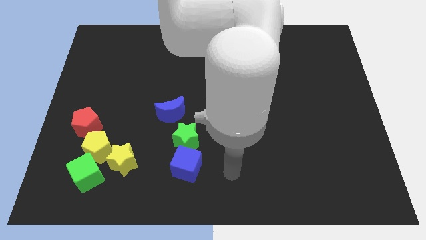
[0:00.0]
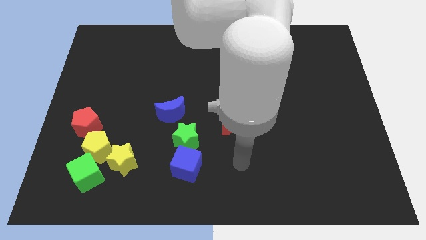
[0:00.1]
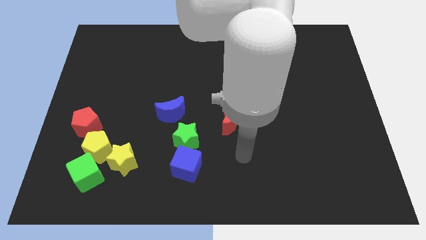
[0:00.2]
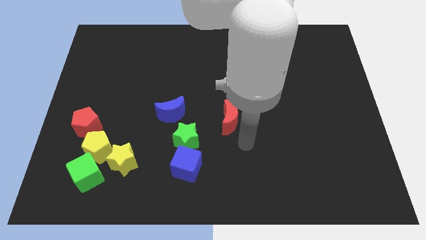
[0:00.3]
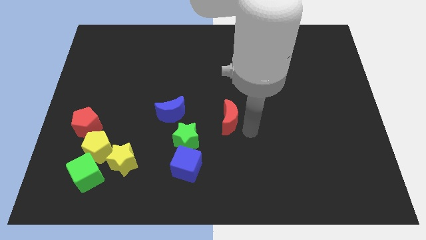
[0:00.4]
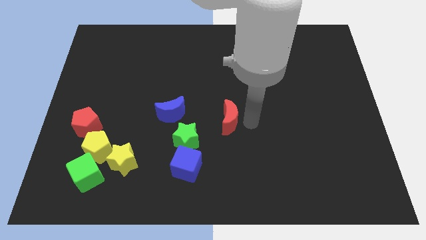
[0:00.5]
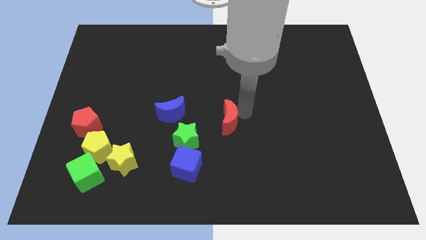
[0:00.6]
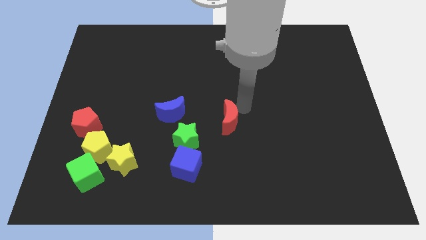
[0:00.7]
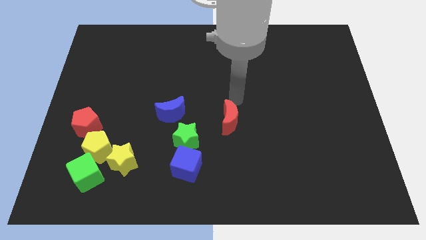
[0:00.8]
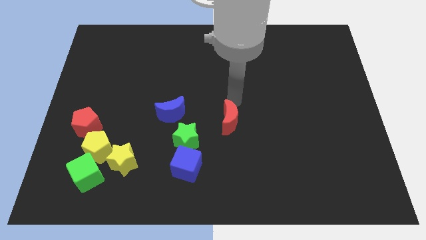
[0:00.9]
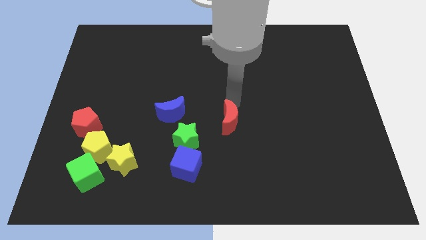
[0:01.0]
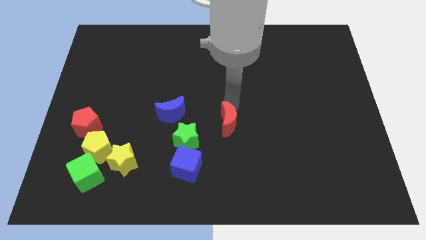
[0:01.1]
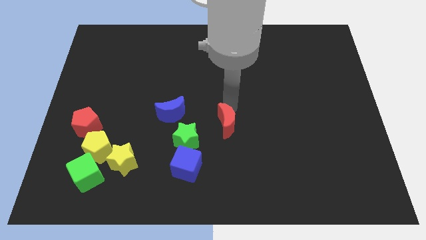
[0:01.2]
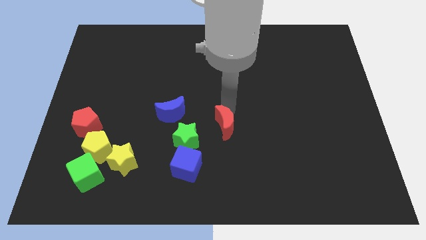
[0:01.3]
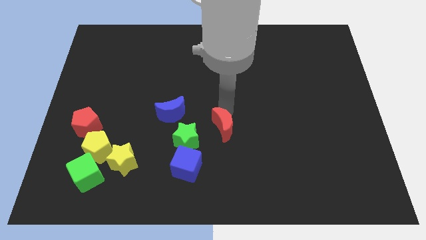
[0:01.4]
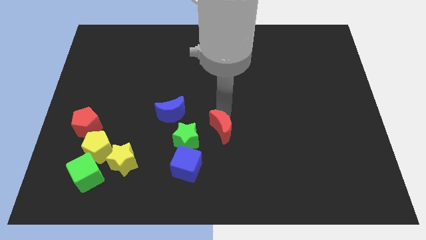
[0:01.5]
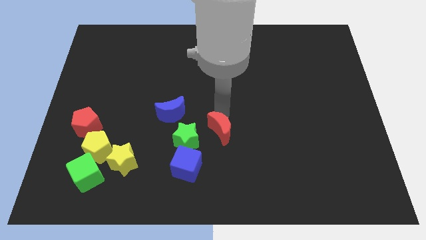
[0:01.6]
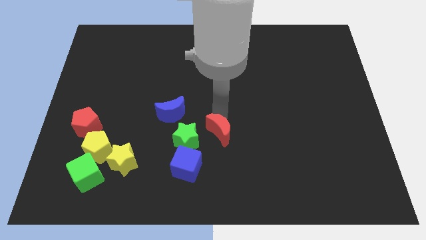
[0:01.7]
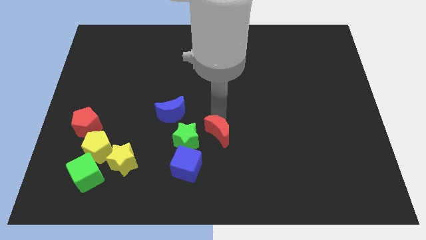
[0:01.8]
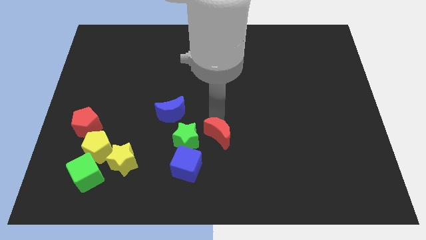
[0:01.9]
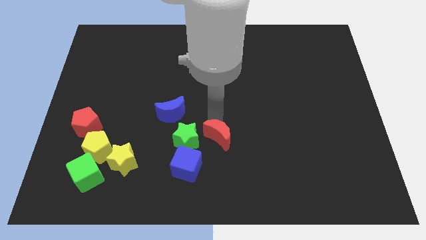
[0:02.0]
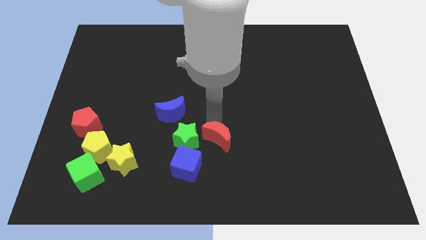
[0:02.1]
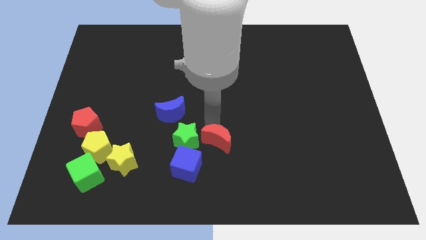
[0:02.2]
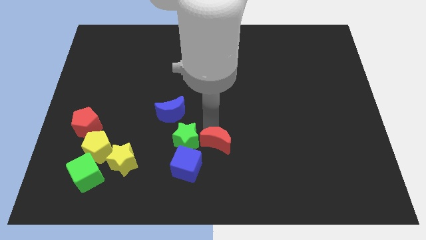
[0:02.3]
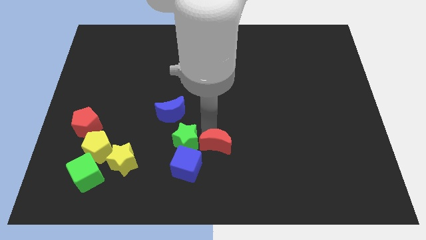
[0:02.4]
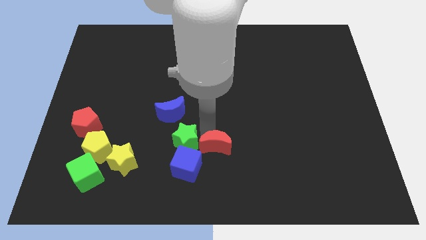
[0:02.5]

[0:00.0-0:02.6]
push the red moon downwards and left diagonally a little

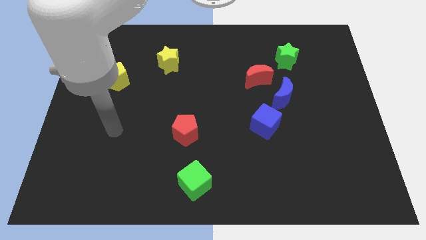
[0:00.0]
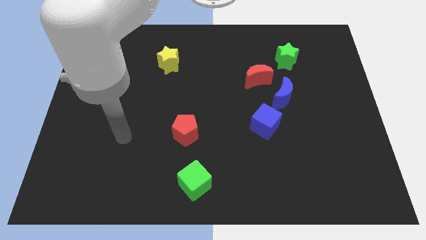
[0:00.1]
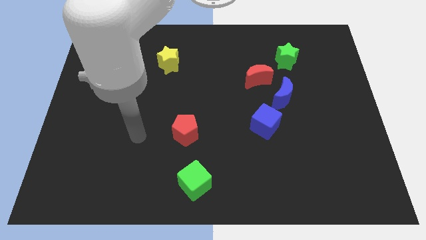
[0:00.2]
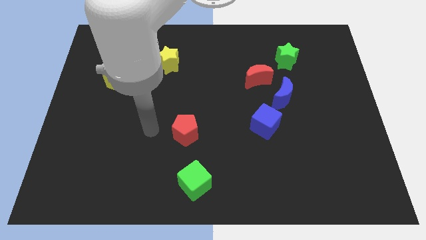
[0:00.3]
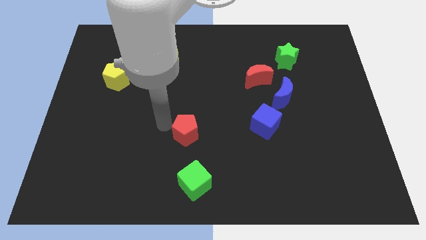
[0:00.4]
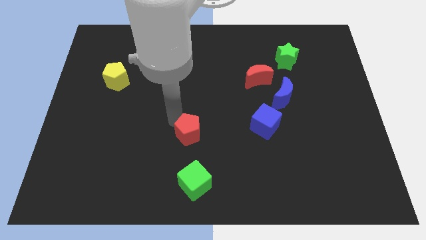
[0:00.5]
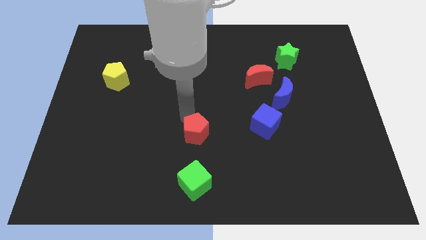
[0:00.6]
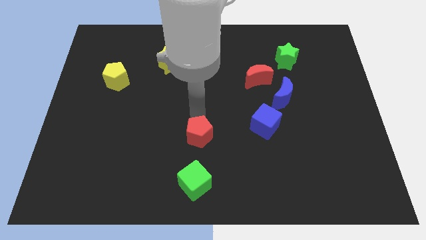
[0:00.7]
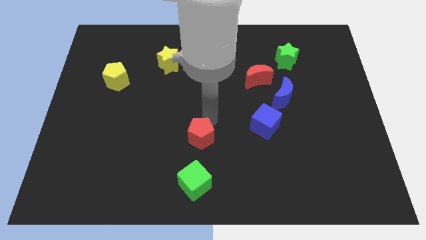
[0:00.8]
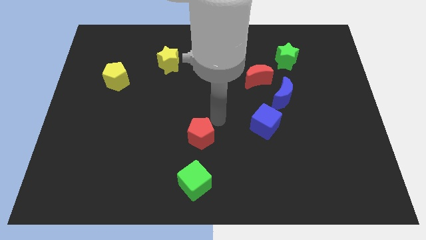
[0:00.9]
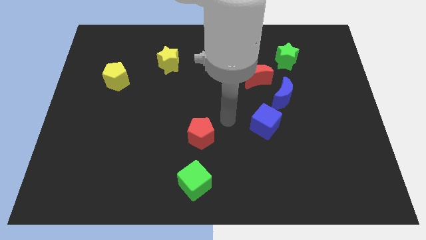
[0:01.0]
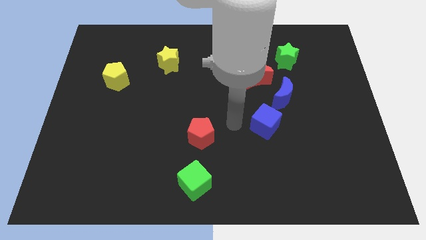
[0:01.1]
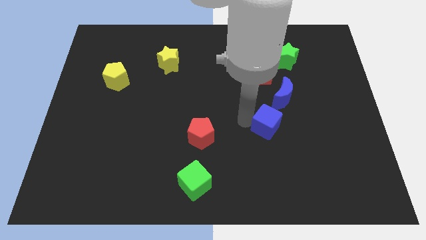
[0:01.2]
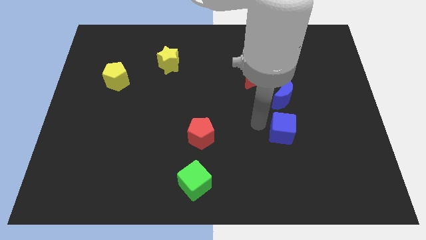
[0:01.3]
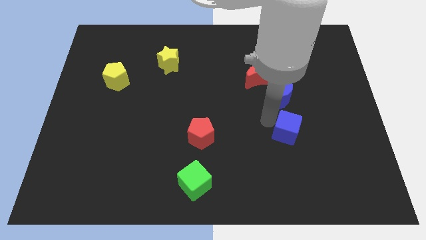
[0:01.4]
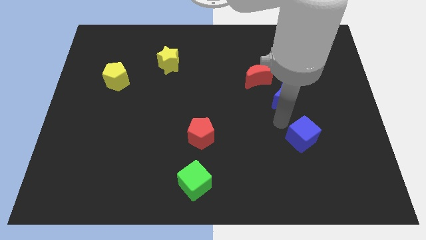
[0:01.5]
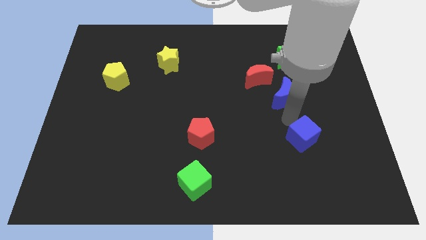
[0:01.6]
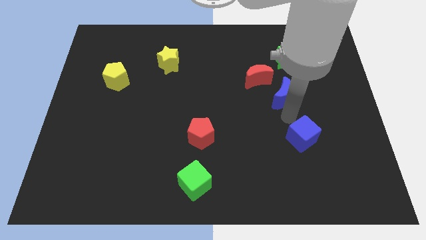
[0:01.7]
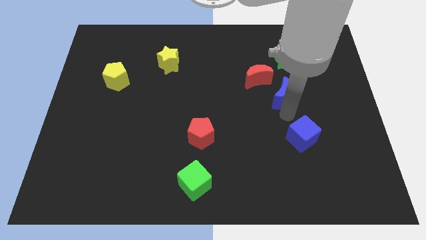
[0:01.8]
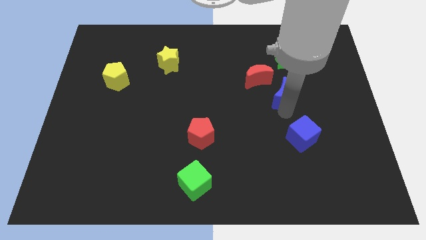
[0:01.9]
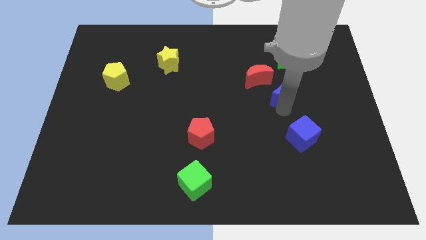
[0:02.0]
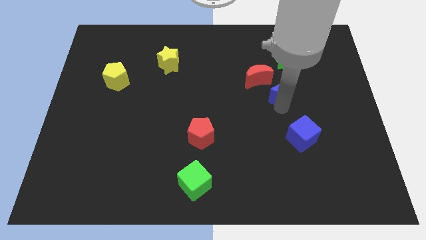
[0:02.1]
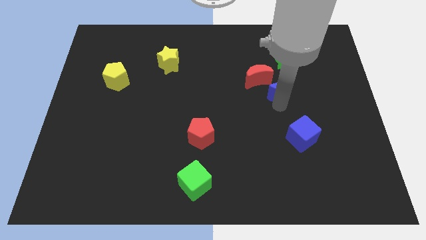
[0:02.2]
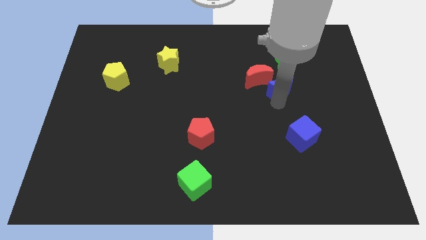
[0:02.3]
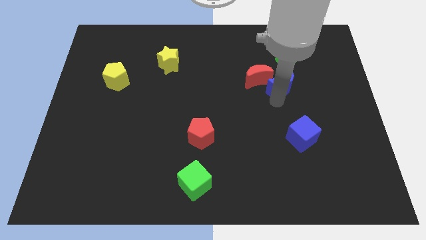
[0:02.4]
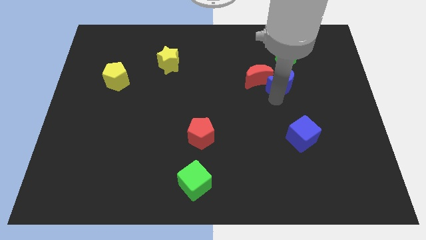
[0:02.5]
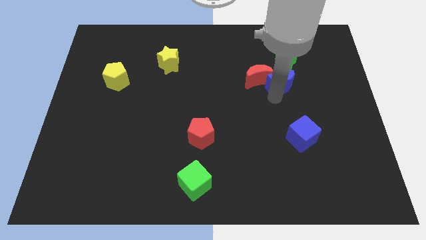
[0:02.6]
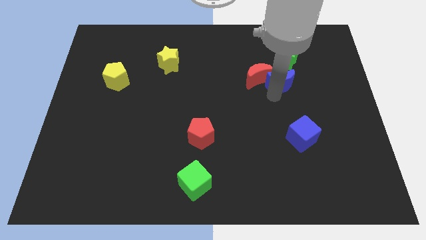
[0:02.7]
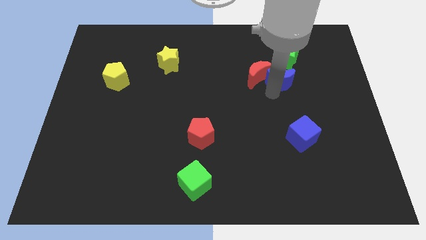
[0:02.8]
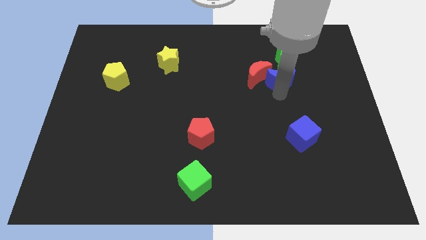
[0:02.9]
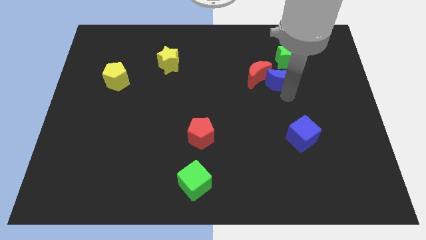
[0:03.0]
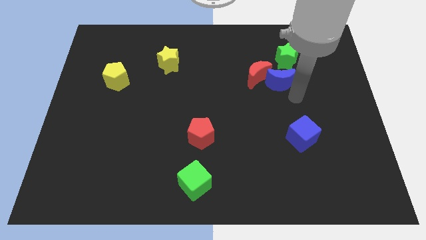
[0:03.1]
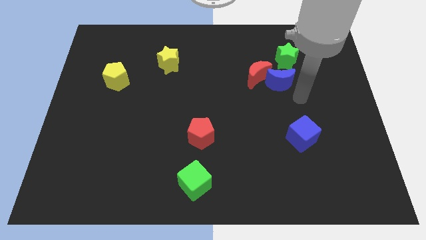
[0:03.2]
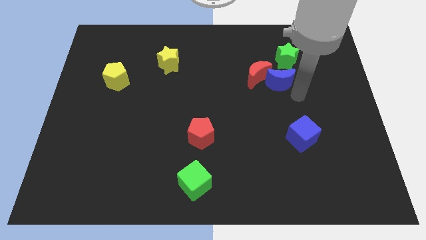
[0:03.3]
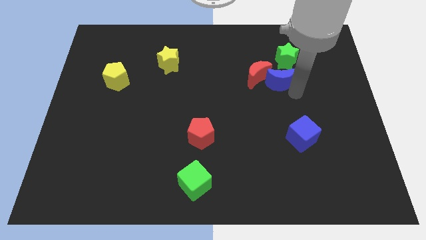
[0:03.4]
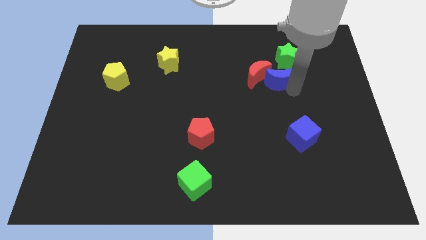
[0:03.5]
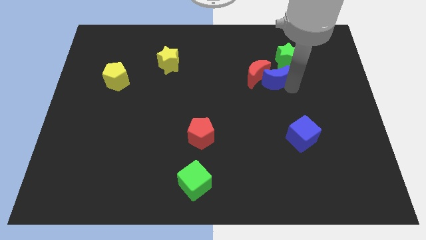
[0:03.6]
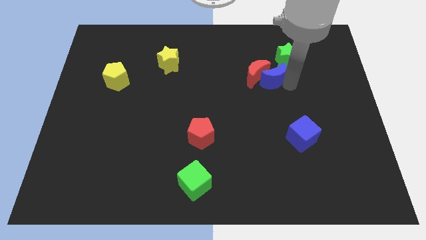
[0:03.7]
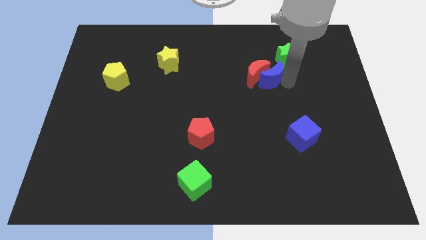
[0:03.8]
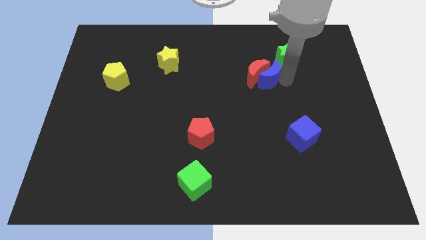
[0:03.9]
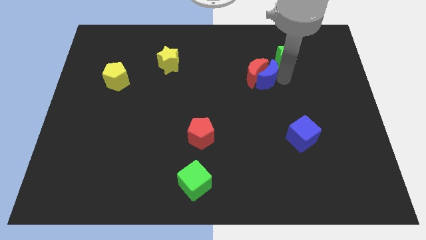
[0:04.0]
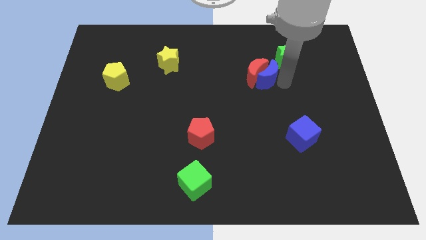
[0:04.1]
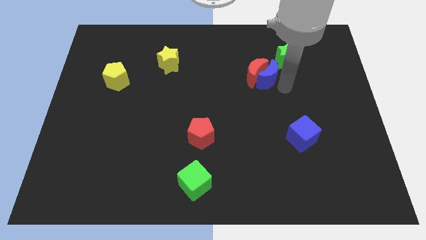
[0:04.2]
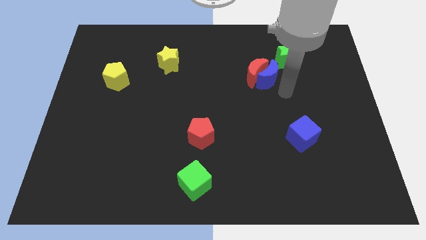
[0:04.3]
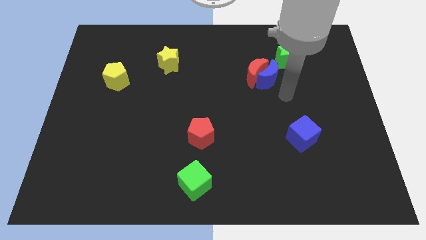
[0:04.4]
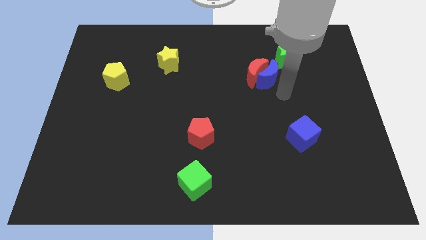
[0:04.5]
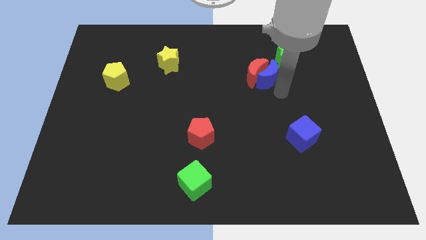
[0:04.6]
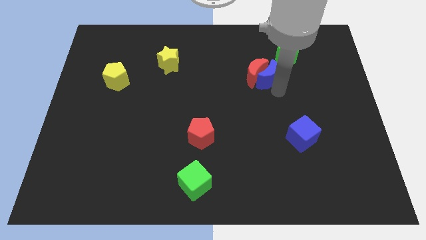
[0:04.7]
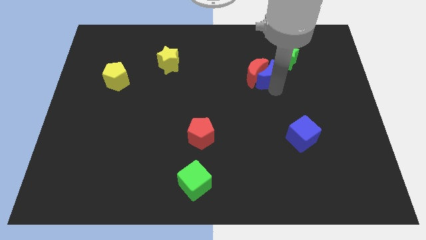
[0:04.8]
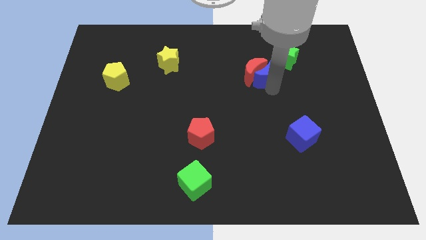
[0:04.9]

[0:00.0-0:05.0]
slide the blue moon a little bit upwards and then left

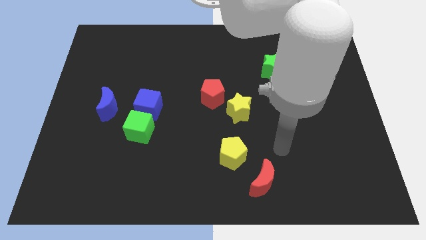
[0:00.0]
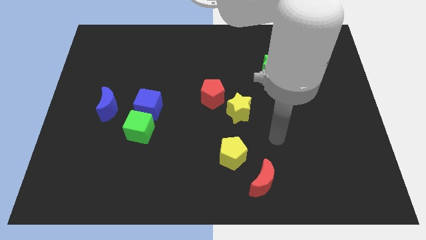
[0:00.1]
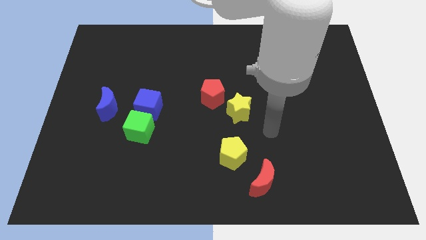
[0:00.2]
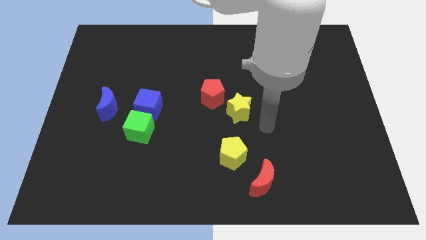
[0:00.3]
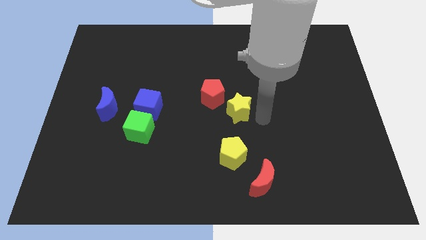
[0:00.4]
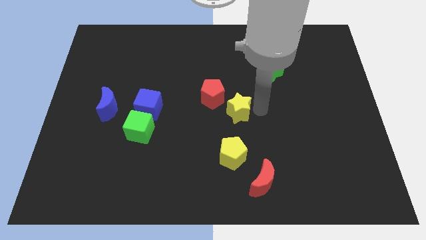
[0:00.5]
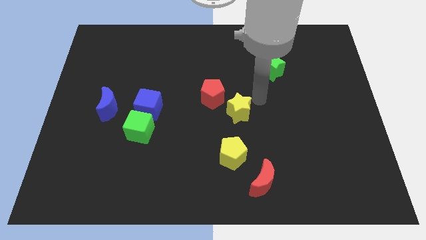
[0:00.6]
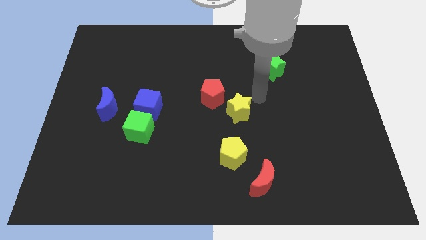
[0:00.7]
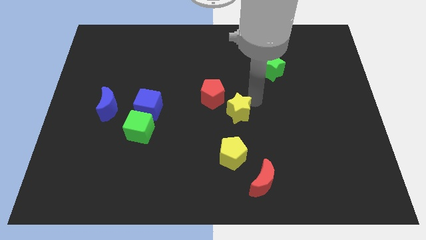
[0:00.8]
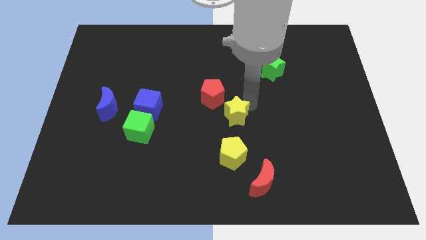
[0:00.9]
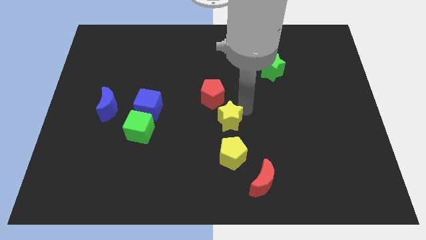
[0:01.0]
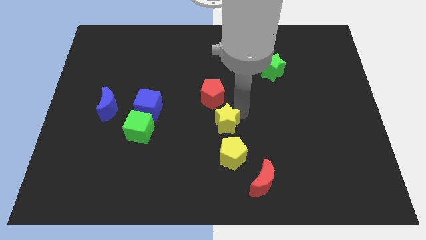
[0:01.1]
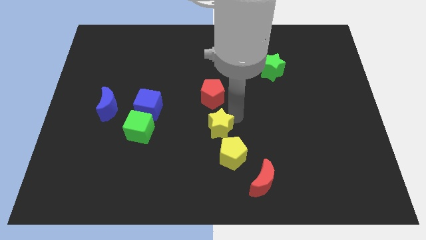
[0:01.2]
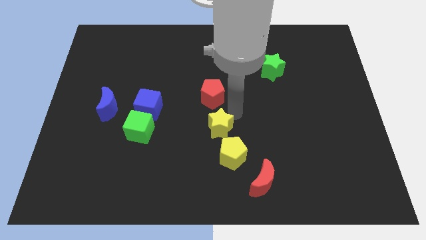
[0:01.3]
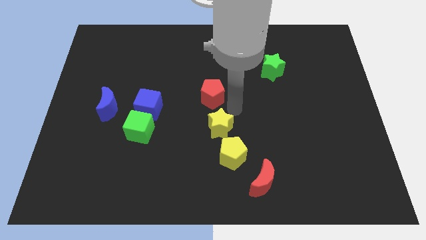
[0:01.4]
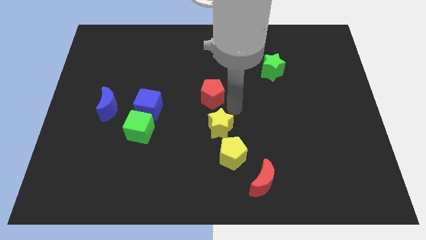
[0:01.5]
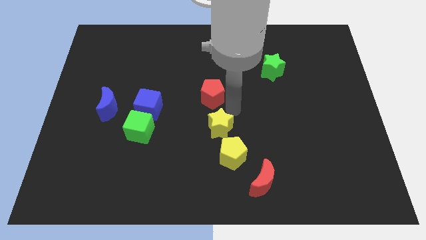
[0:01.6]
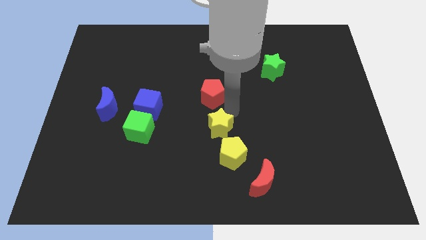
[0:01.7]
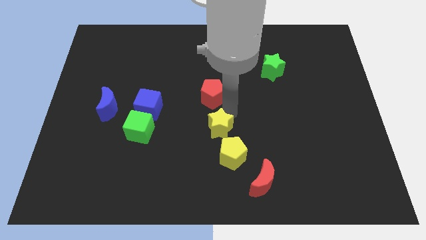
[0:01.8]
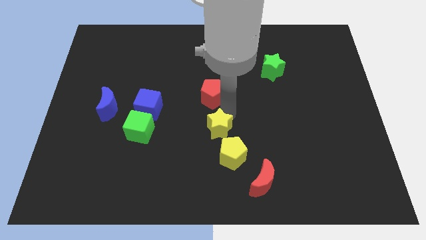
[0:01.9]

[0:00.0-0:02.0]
move the yellow star downwards and then left a bit
